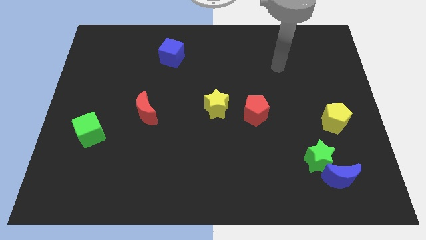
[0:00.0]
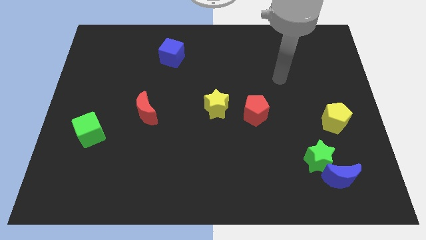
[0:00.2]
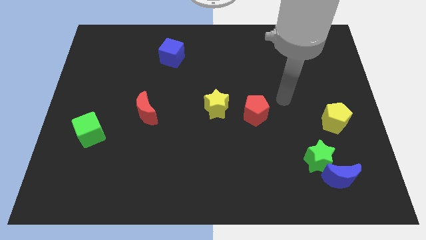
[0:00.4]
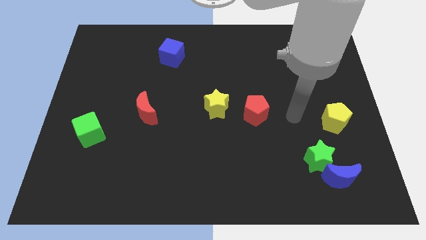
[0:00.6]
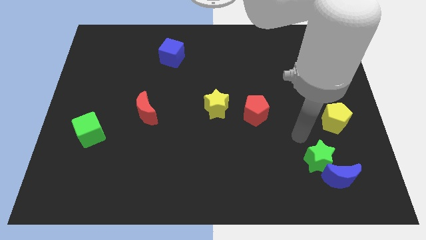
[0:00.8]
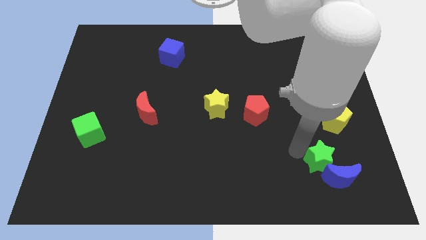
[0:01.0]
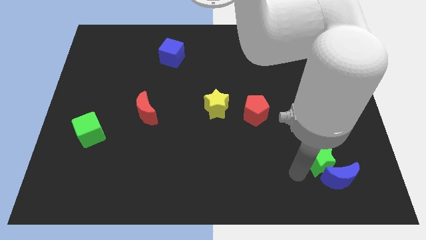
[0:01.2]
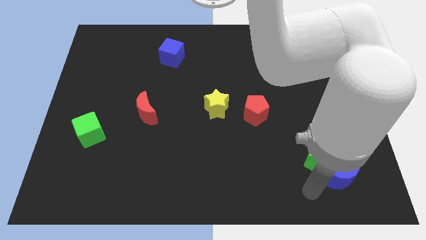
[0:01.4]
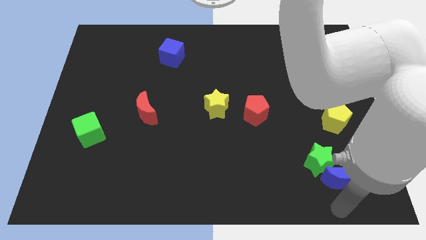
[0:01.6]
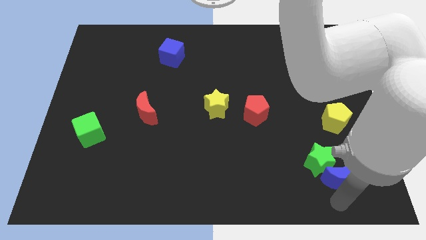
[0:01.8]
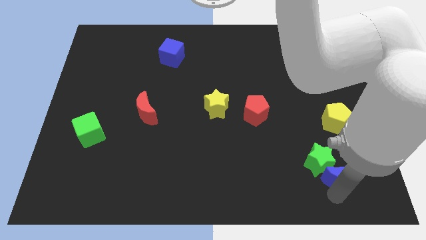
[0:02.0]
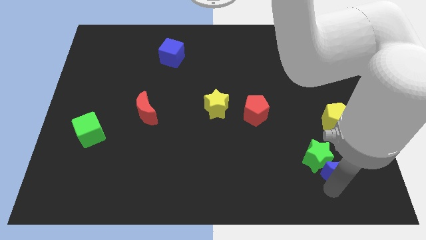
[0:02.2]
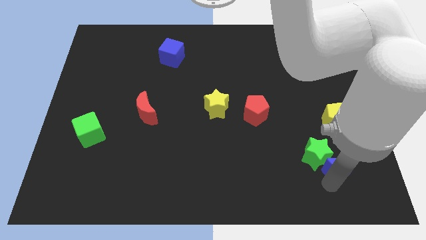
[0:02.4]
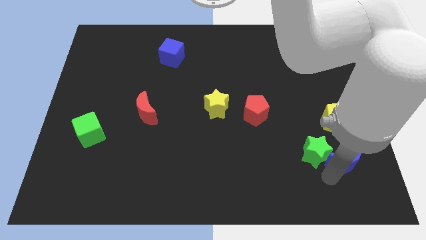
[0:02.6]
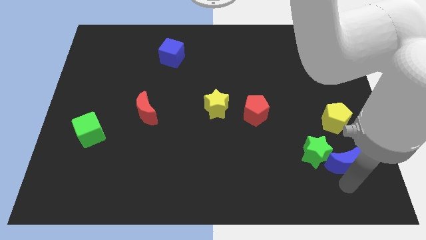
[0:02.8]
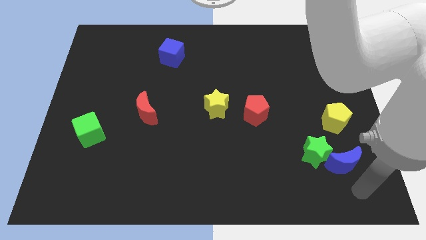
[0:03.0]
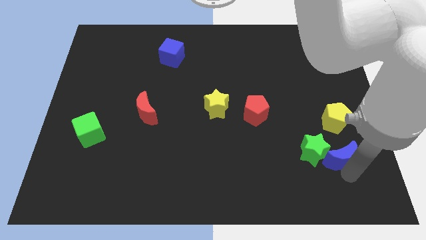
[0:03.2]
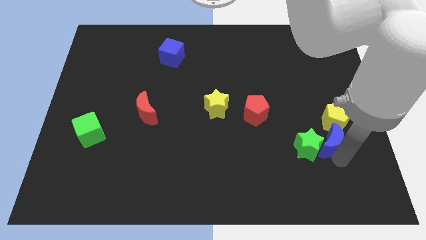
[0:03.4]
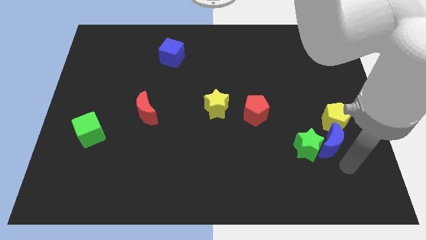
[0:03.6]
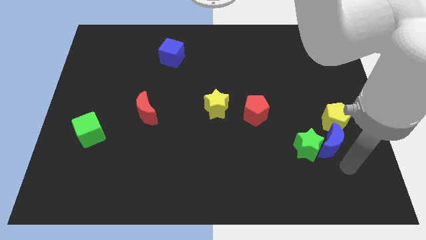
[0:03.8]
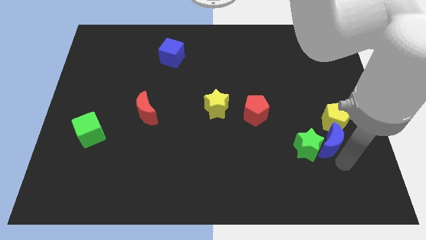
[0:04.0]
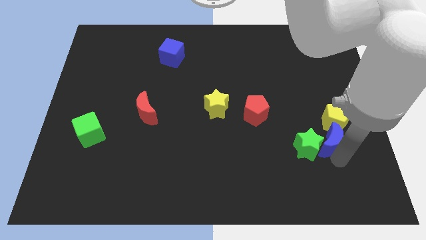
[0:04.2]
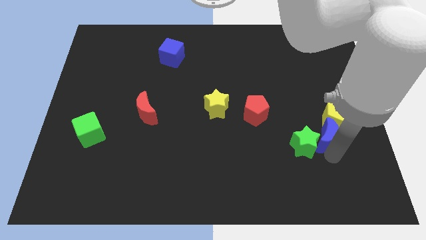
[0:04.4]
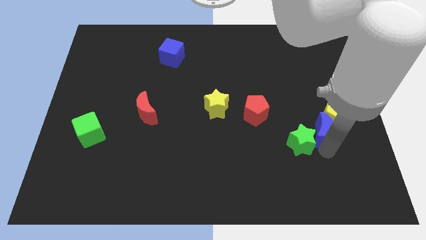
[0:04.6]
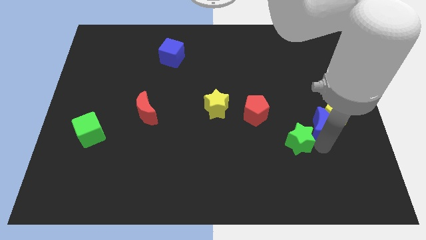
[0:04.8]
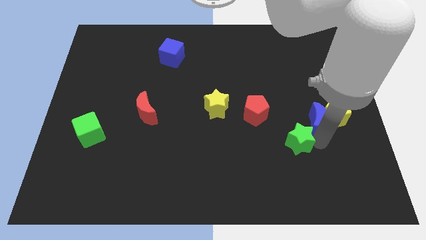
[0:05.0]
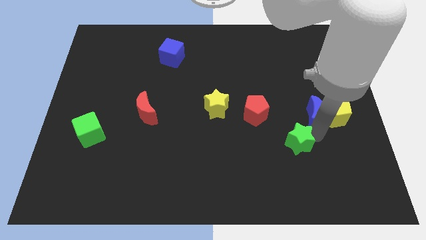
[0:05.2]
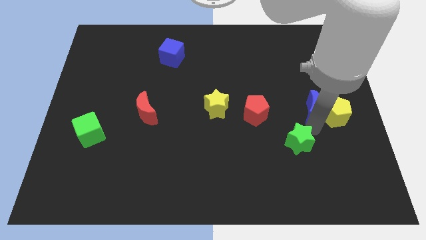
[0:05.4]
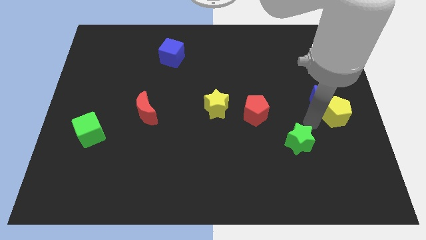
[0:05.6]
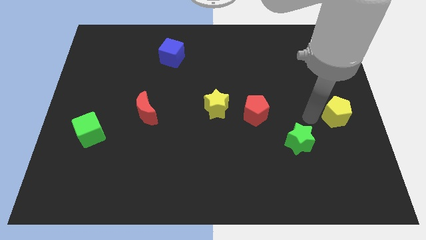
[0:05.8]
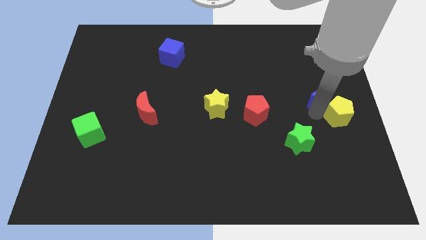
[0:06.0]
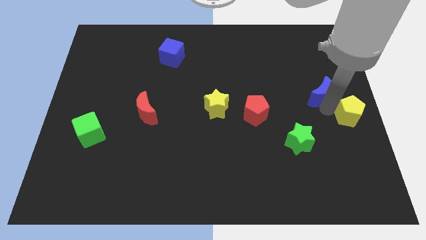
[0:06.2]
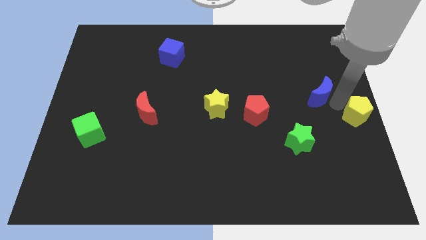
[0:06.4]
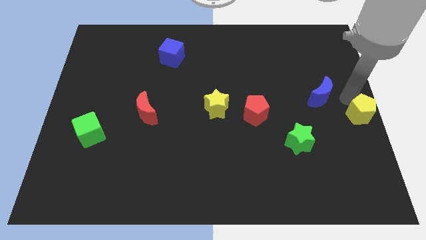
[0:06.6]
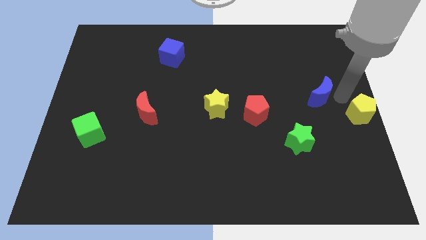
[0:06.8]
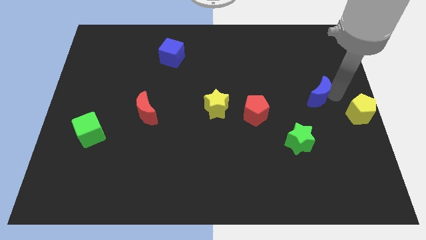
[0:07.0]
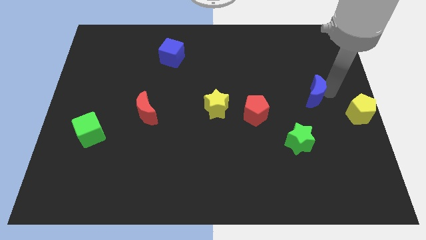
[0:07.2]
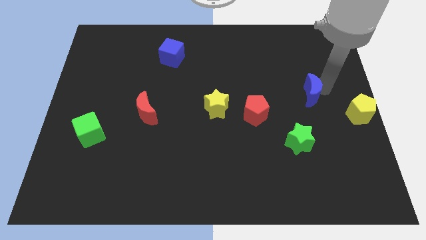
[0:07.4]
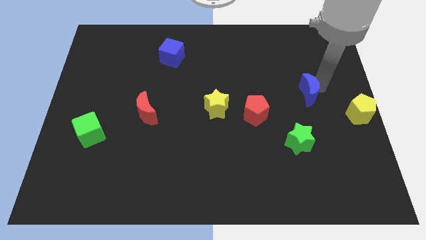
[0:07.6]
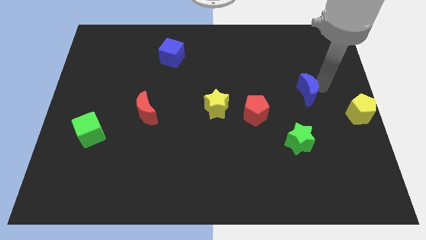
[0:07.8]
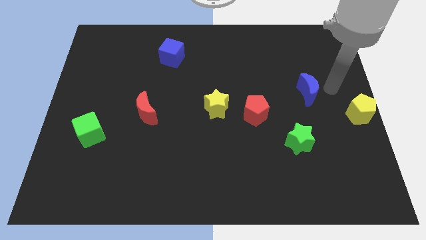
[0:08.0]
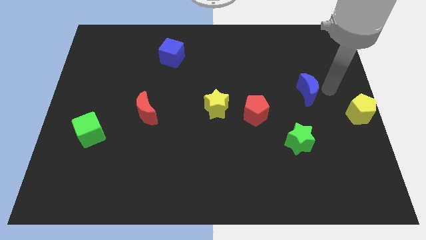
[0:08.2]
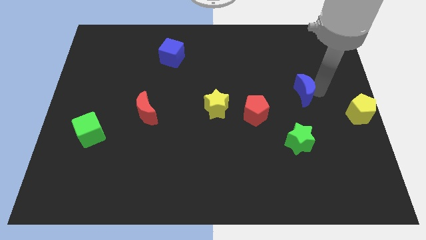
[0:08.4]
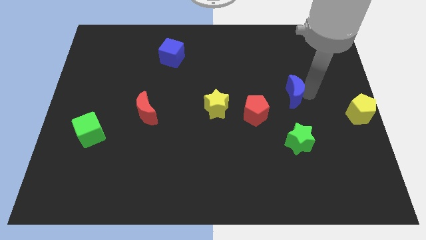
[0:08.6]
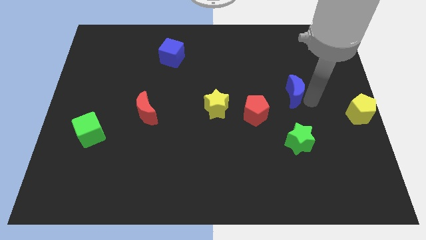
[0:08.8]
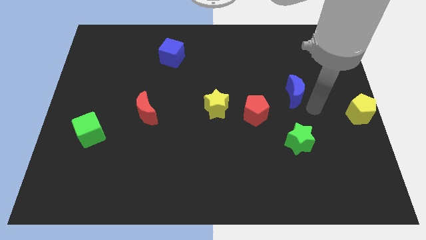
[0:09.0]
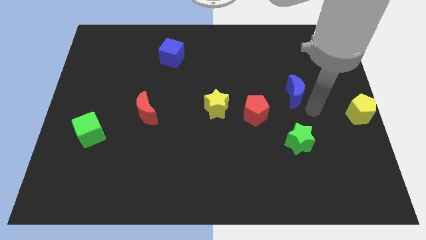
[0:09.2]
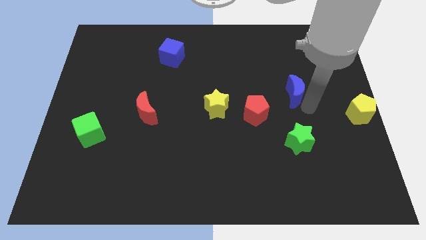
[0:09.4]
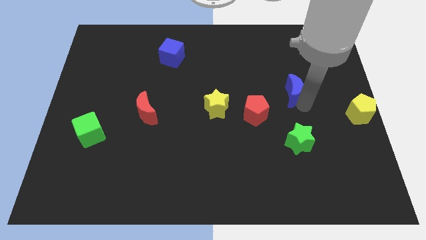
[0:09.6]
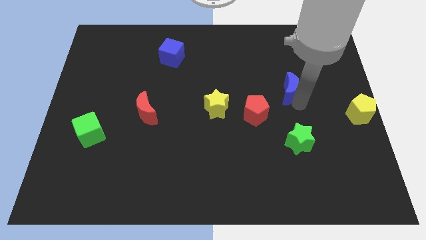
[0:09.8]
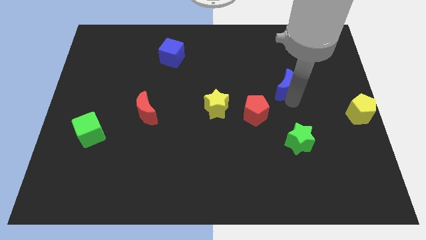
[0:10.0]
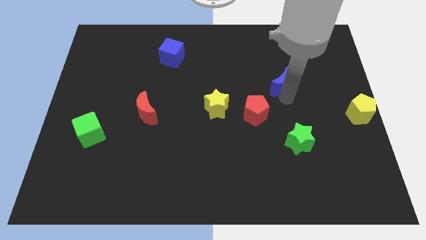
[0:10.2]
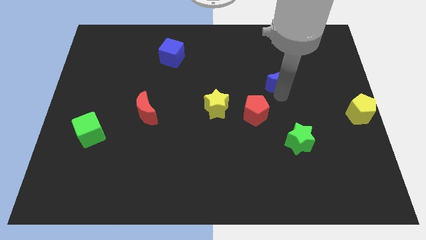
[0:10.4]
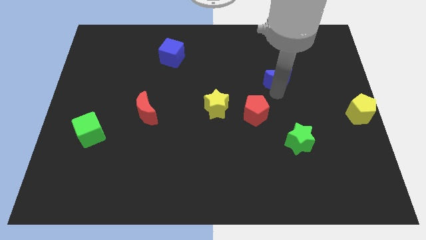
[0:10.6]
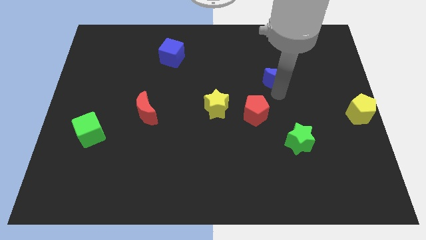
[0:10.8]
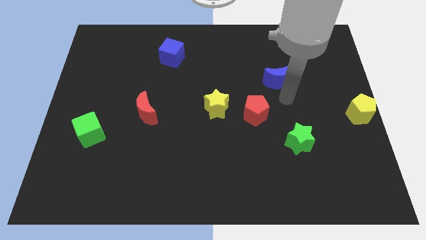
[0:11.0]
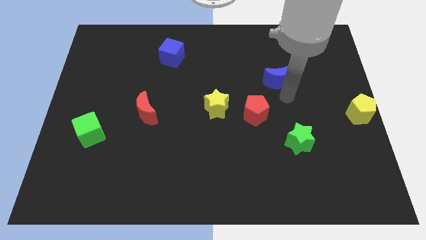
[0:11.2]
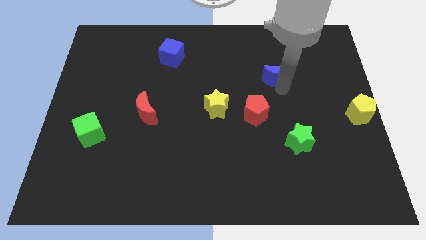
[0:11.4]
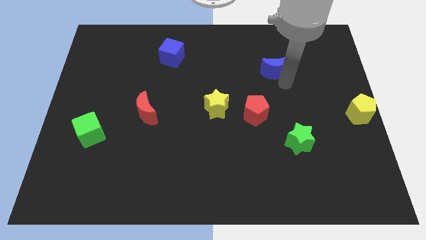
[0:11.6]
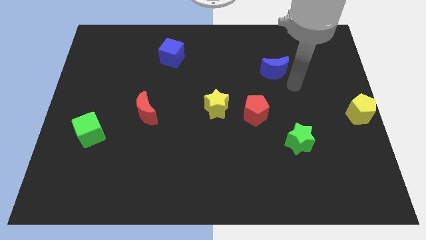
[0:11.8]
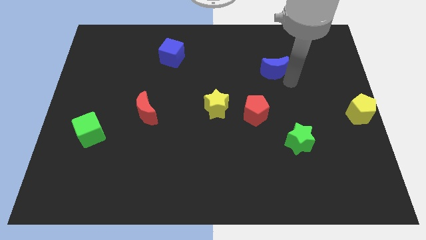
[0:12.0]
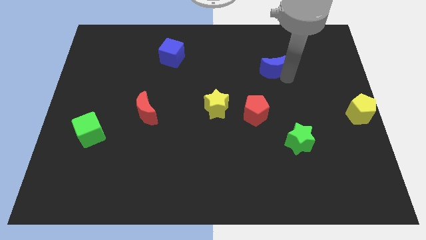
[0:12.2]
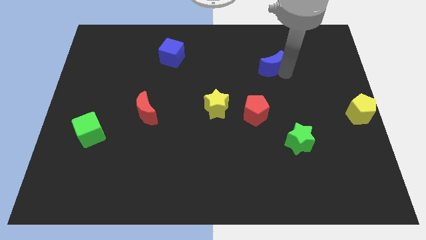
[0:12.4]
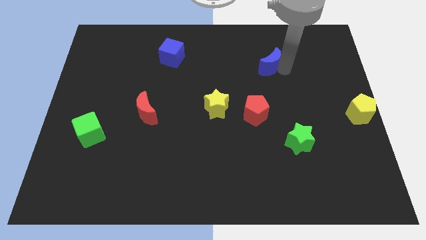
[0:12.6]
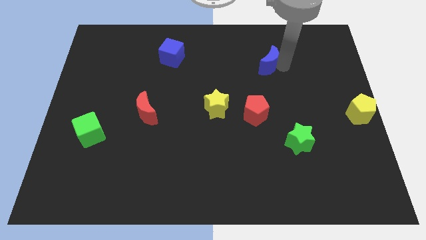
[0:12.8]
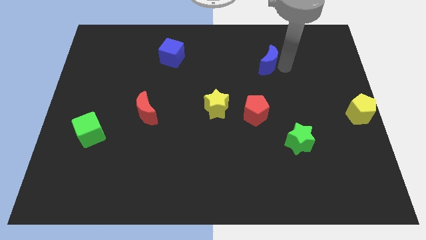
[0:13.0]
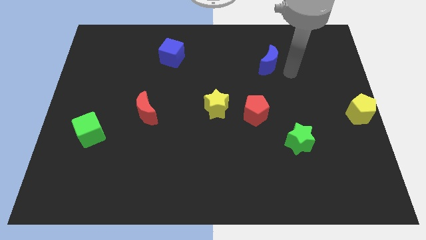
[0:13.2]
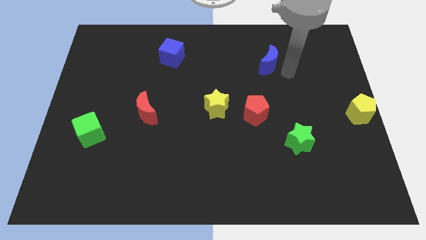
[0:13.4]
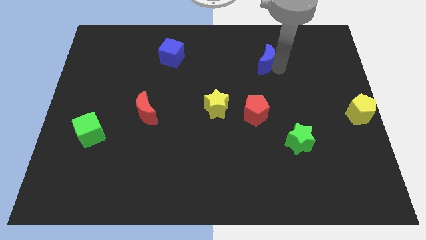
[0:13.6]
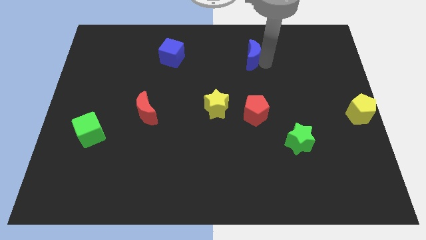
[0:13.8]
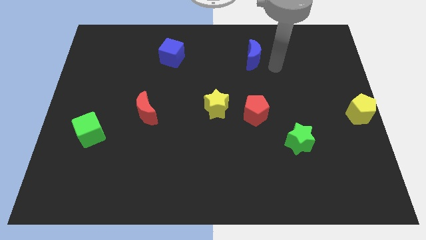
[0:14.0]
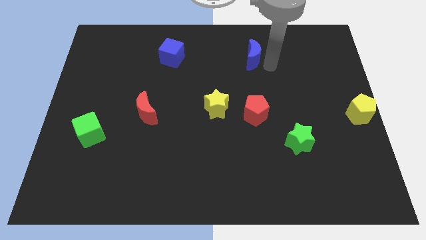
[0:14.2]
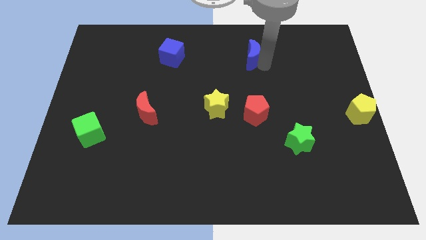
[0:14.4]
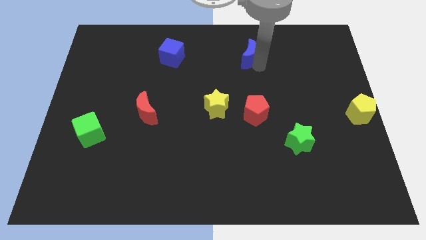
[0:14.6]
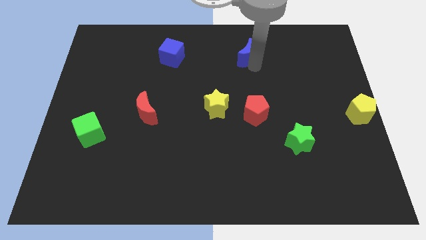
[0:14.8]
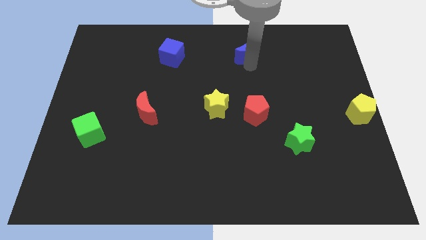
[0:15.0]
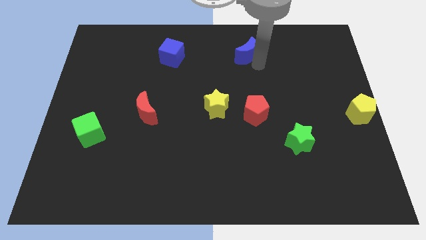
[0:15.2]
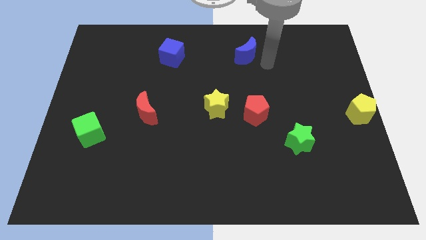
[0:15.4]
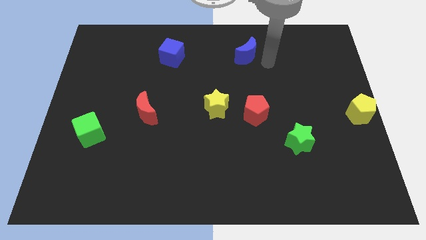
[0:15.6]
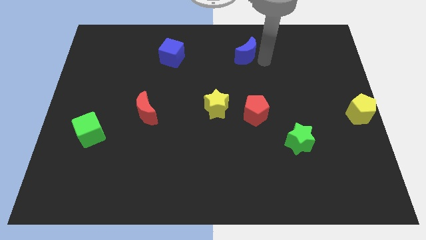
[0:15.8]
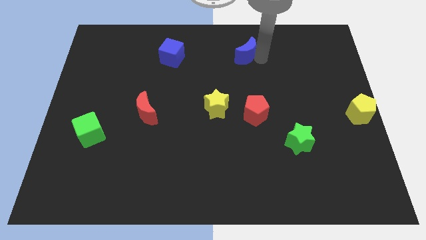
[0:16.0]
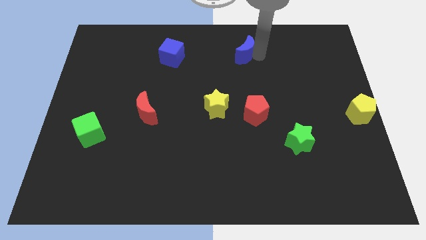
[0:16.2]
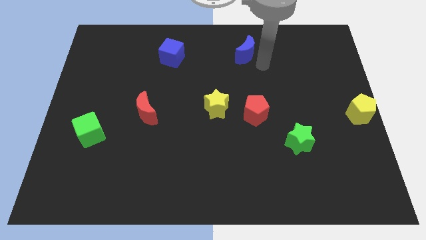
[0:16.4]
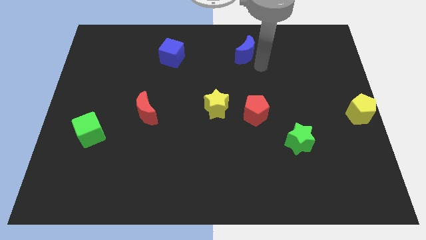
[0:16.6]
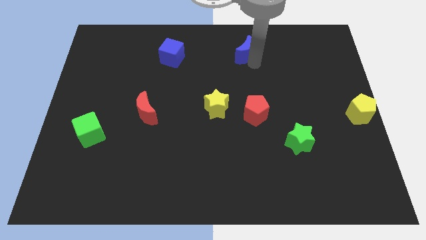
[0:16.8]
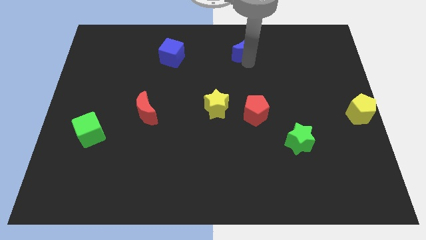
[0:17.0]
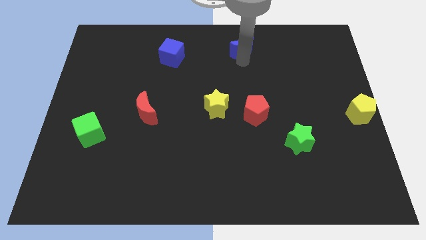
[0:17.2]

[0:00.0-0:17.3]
move the blue moon to the top side
